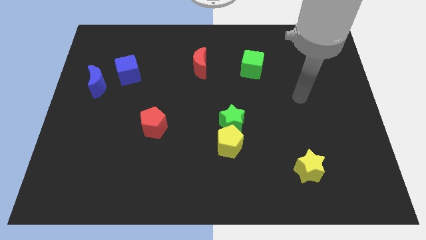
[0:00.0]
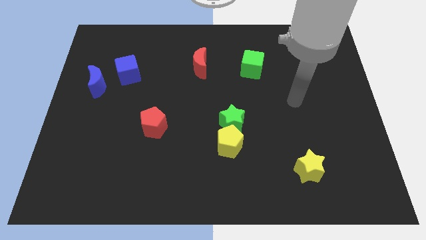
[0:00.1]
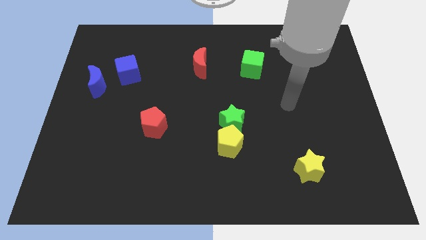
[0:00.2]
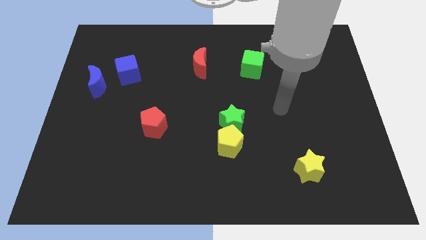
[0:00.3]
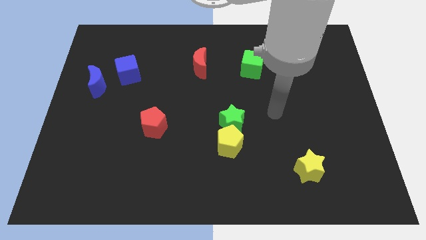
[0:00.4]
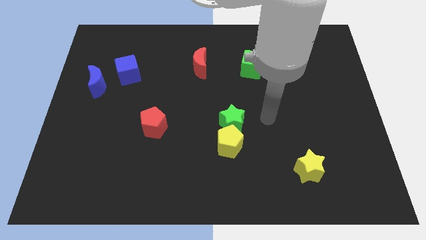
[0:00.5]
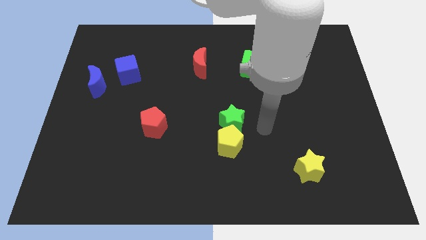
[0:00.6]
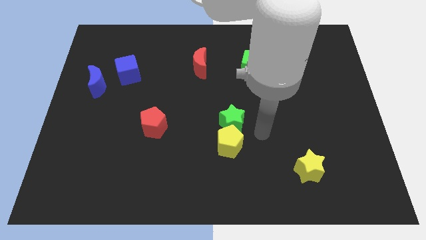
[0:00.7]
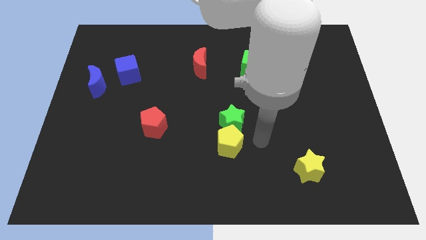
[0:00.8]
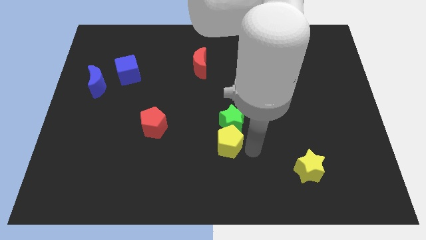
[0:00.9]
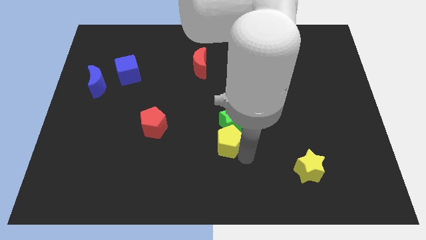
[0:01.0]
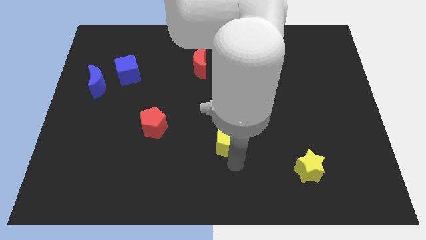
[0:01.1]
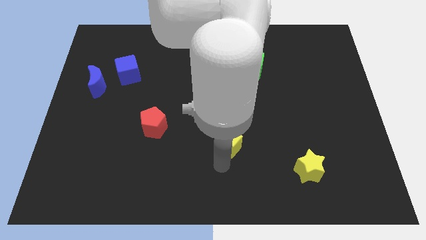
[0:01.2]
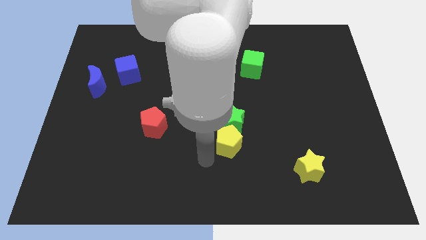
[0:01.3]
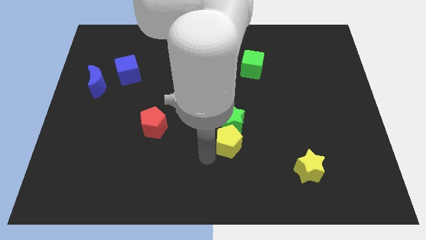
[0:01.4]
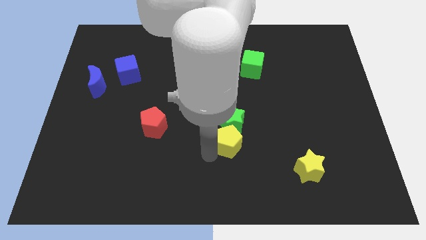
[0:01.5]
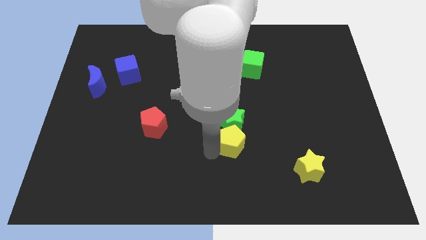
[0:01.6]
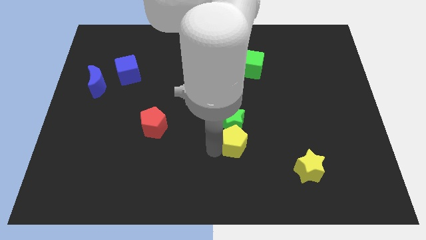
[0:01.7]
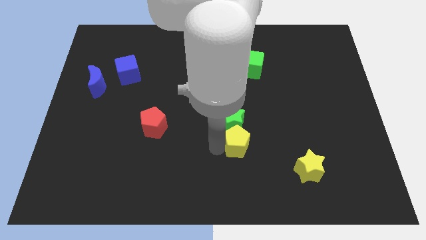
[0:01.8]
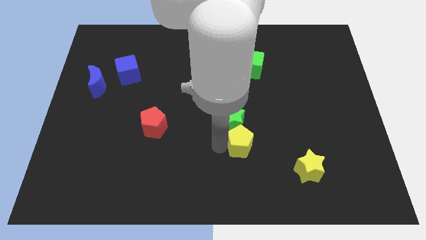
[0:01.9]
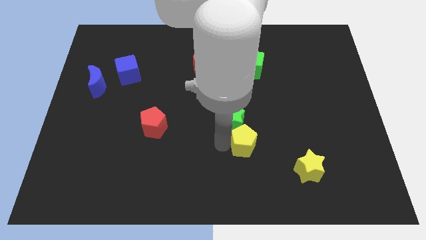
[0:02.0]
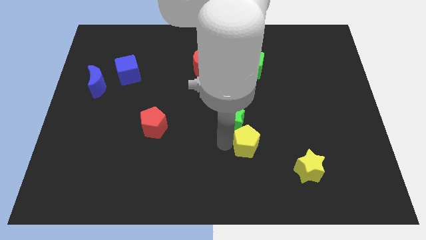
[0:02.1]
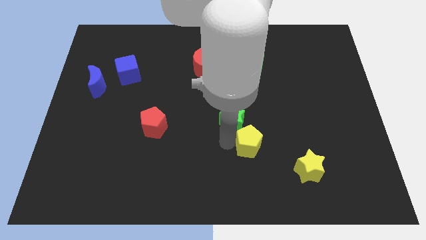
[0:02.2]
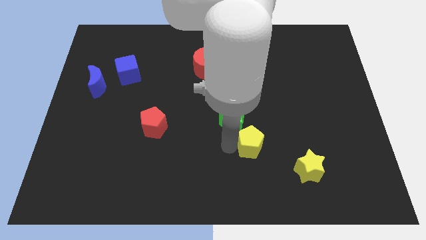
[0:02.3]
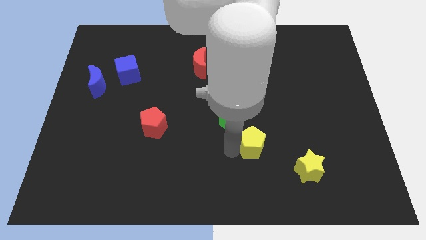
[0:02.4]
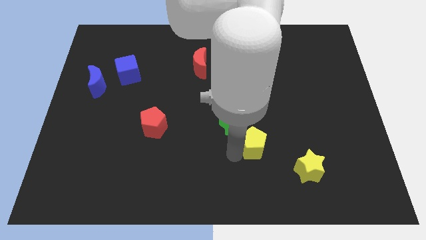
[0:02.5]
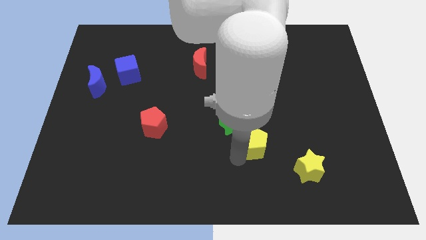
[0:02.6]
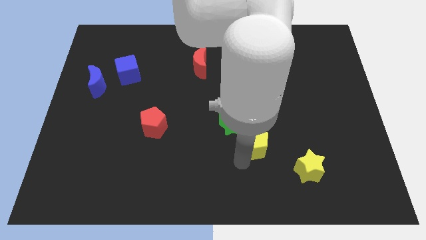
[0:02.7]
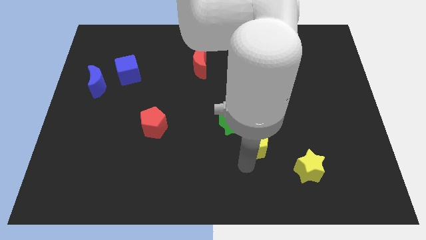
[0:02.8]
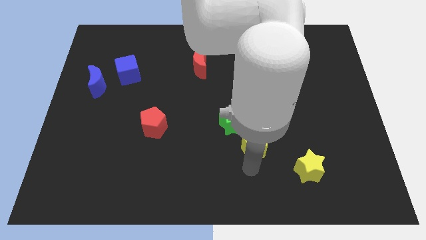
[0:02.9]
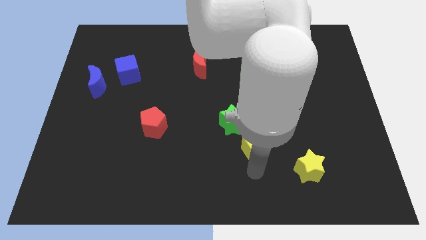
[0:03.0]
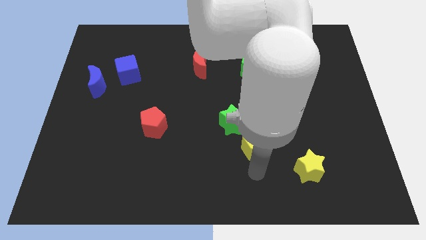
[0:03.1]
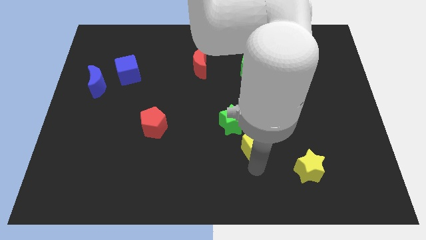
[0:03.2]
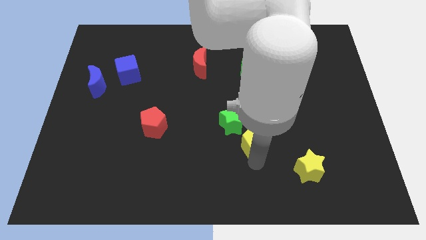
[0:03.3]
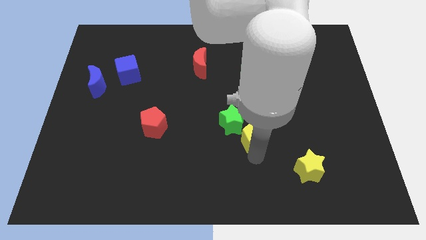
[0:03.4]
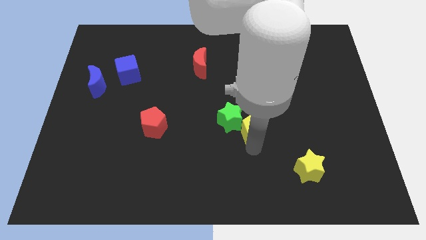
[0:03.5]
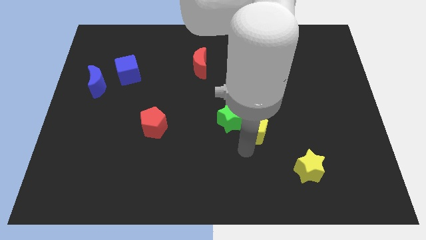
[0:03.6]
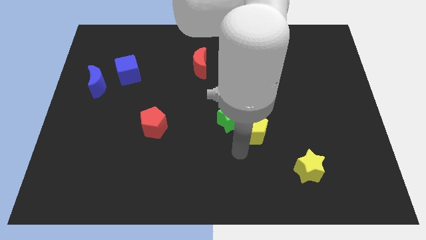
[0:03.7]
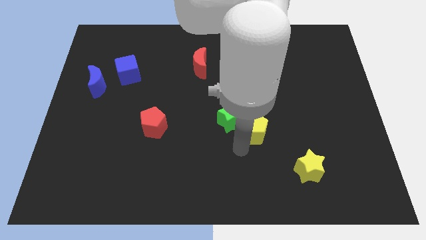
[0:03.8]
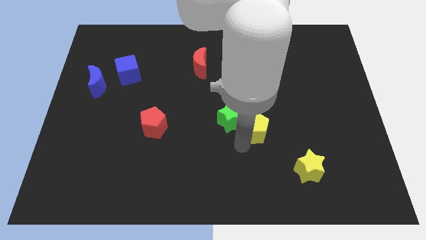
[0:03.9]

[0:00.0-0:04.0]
slide the yellow pentagon upwards and then to the right a little

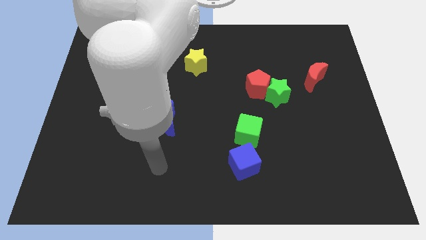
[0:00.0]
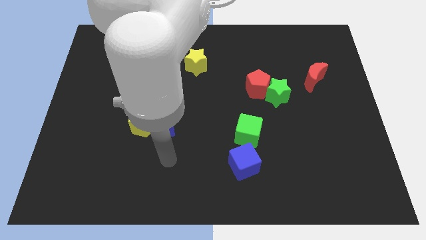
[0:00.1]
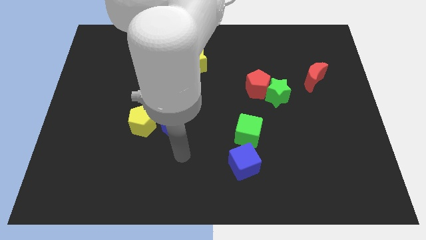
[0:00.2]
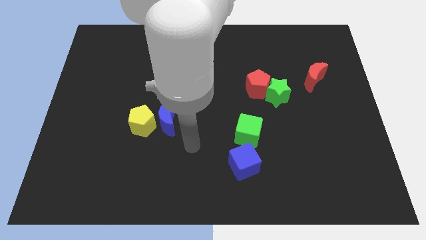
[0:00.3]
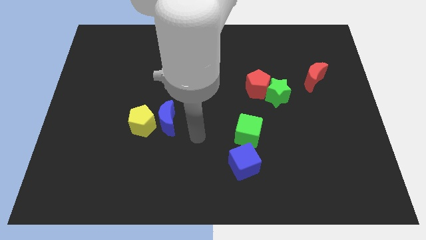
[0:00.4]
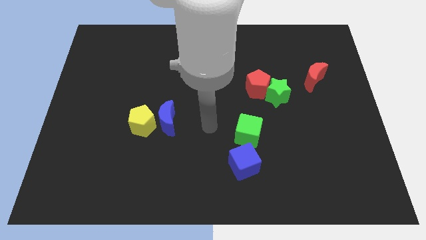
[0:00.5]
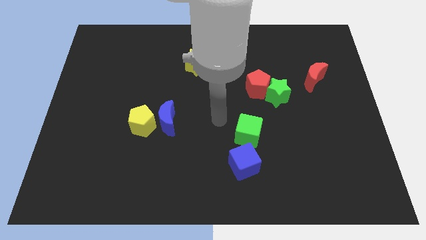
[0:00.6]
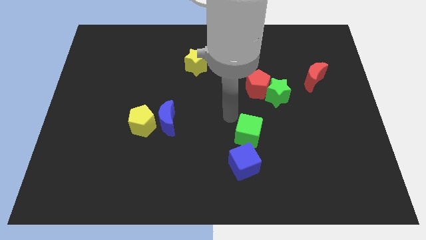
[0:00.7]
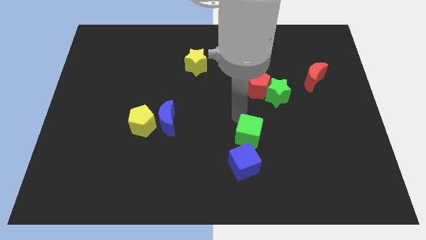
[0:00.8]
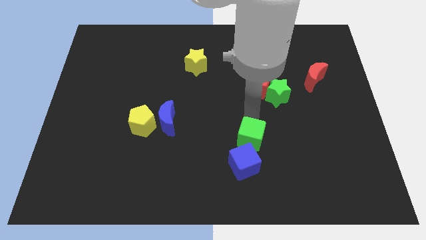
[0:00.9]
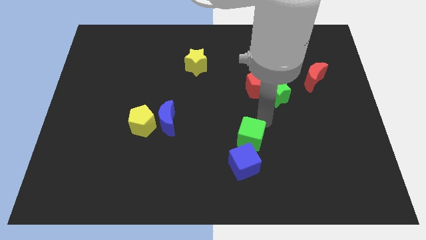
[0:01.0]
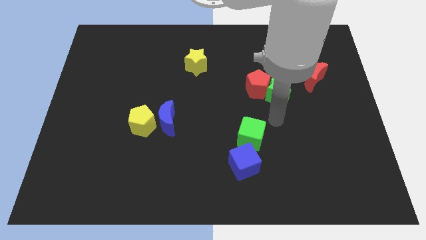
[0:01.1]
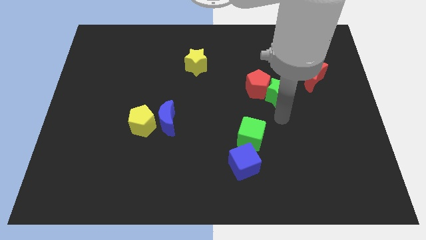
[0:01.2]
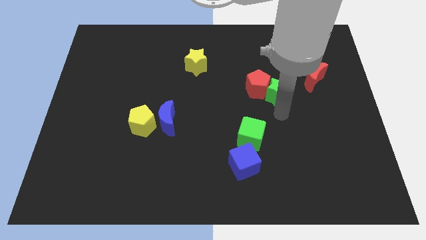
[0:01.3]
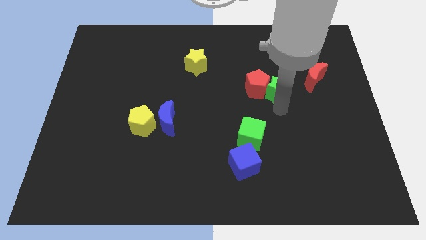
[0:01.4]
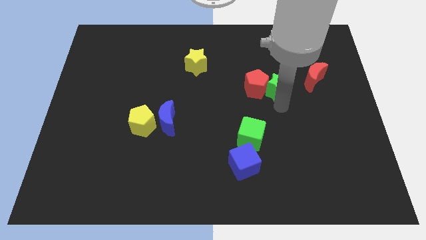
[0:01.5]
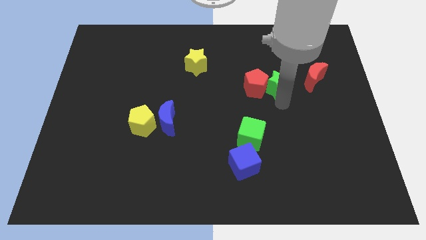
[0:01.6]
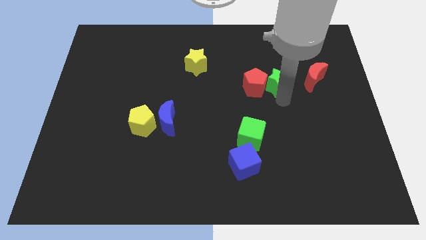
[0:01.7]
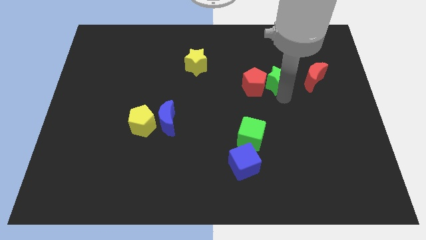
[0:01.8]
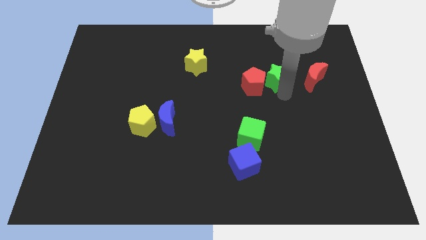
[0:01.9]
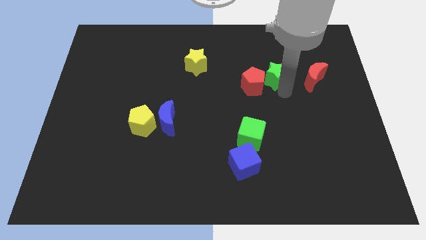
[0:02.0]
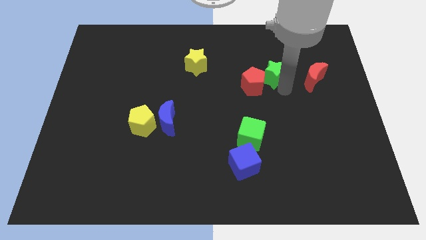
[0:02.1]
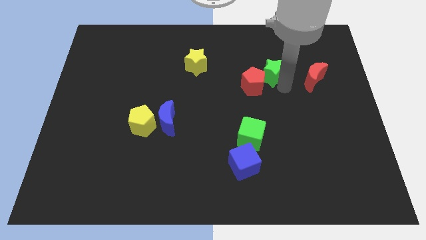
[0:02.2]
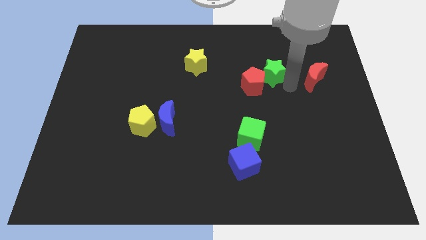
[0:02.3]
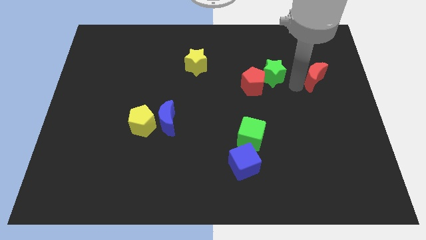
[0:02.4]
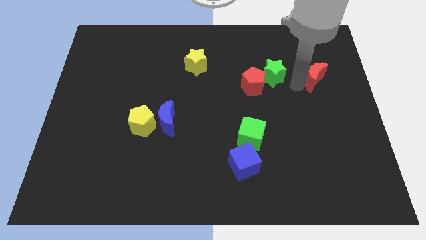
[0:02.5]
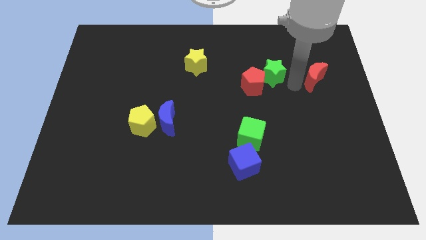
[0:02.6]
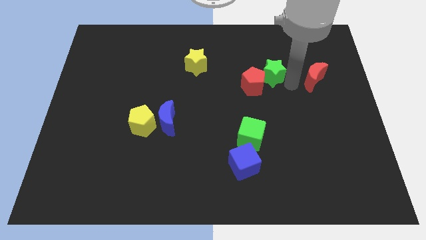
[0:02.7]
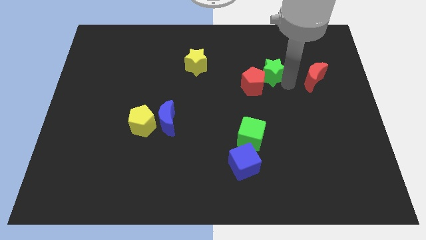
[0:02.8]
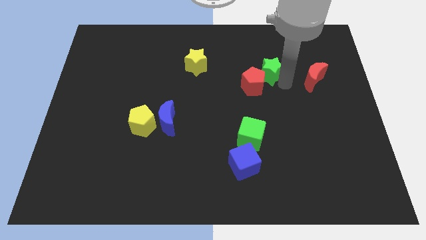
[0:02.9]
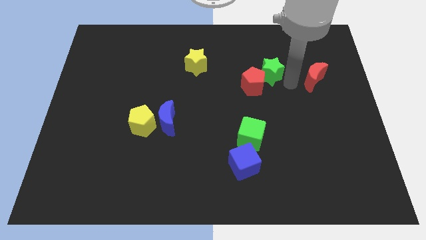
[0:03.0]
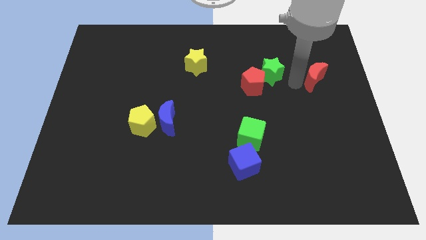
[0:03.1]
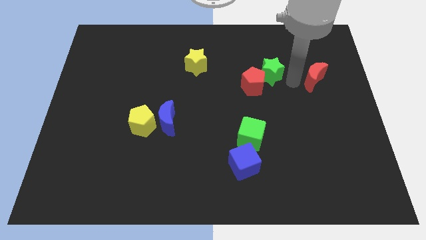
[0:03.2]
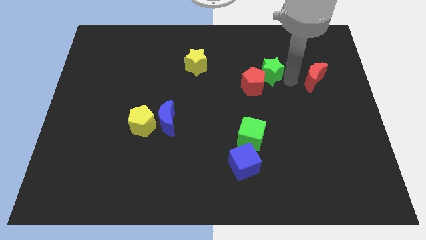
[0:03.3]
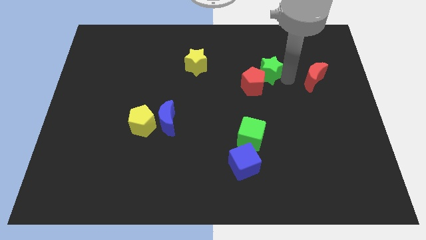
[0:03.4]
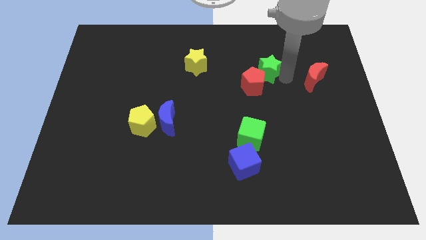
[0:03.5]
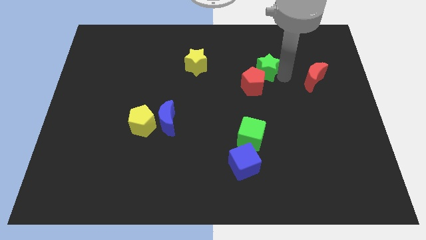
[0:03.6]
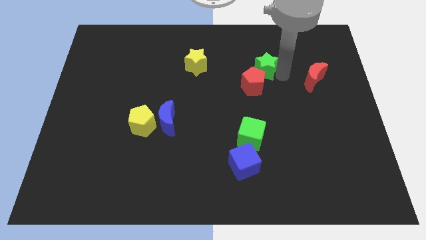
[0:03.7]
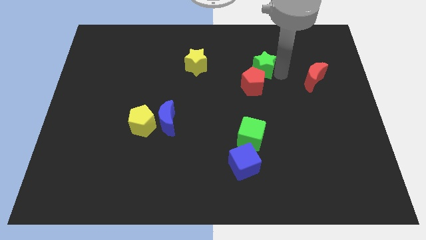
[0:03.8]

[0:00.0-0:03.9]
slightly push the green star upwards and to the left diagonally

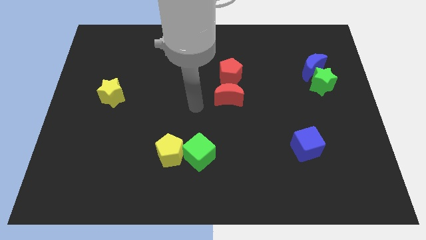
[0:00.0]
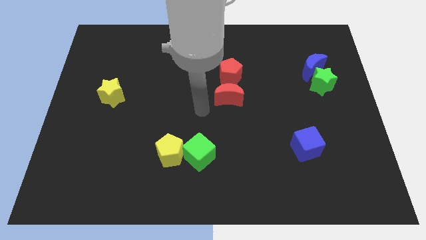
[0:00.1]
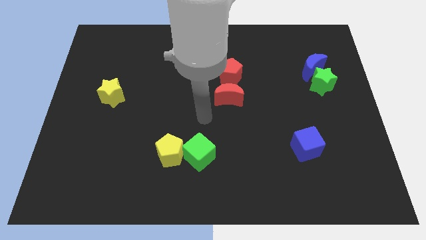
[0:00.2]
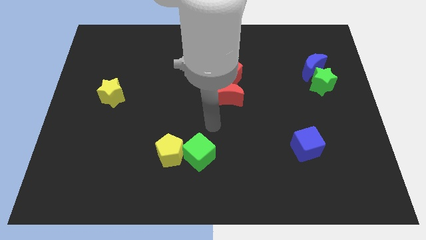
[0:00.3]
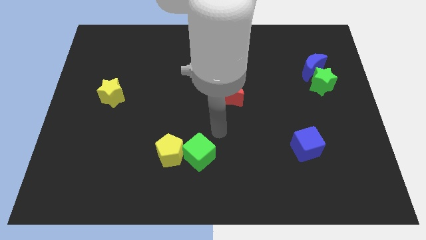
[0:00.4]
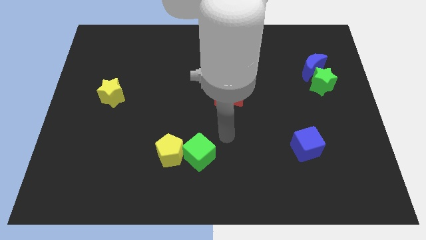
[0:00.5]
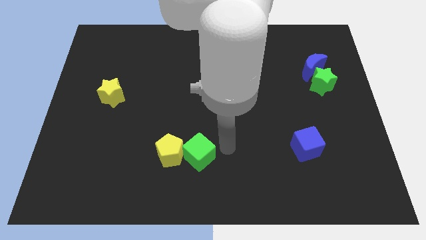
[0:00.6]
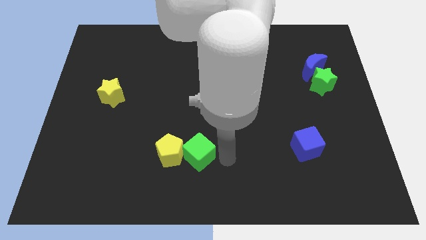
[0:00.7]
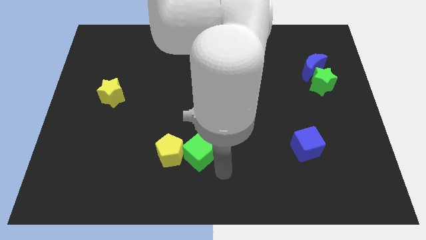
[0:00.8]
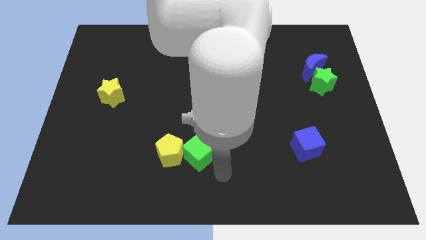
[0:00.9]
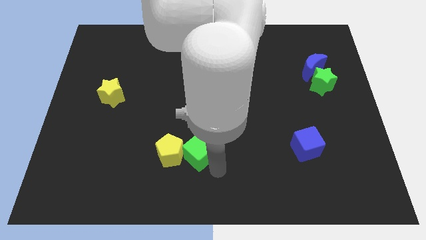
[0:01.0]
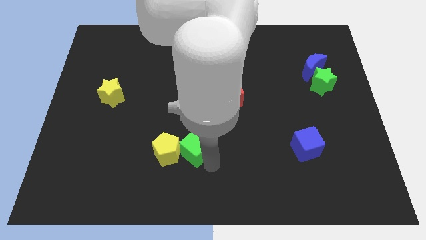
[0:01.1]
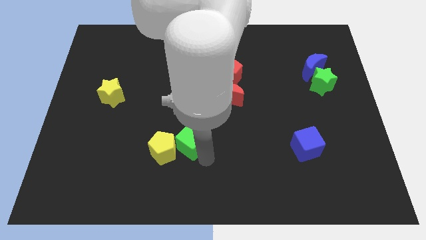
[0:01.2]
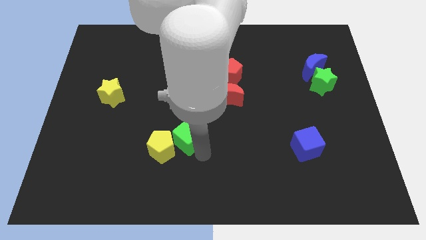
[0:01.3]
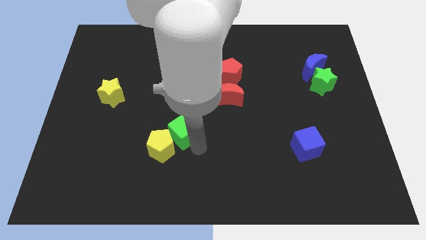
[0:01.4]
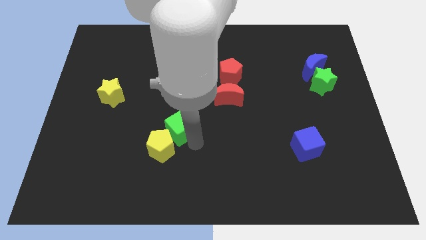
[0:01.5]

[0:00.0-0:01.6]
slide the green cube upwards and left diagonally a little bit
